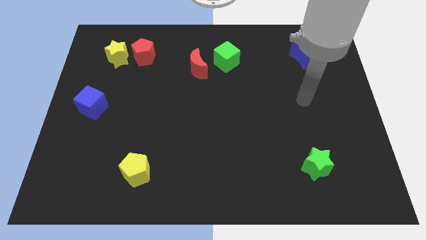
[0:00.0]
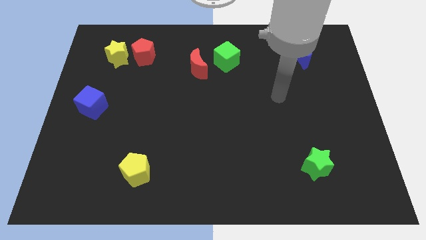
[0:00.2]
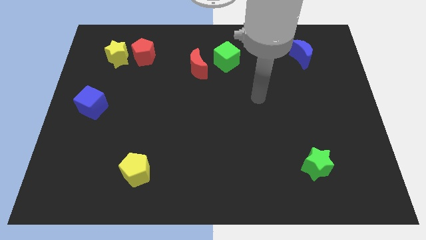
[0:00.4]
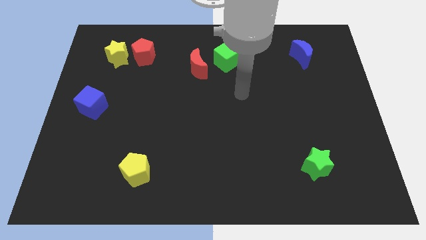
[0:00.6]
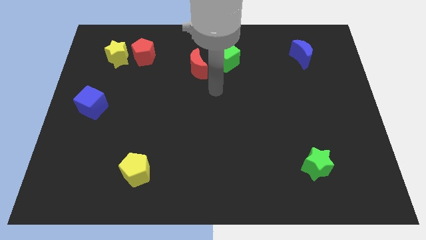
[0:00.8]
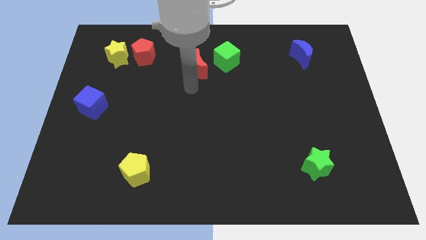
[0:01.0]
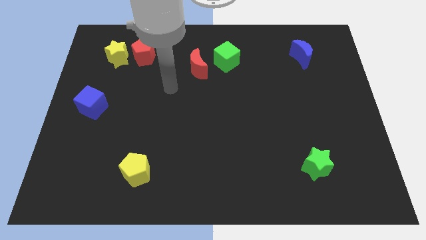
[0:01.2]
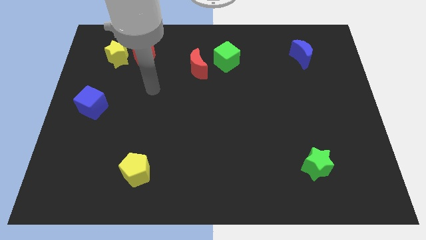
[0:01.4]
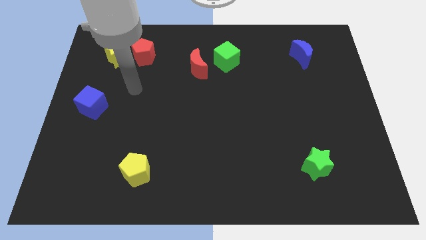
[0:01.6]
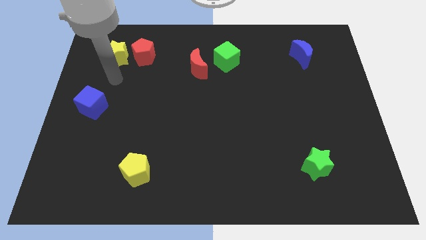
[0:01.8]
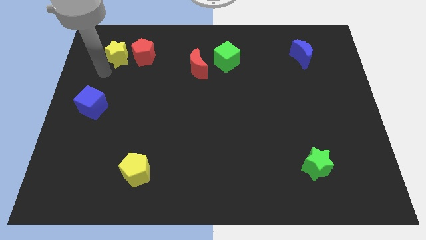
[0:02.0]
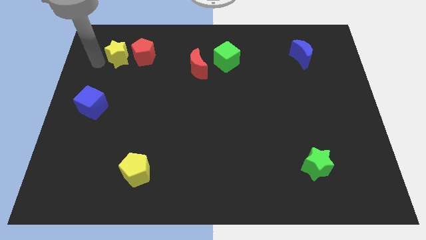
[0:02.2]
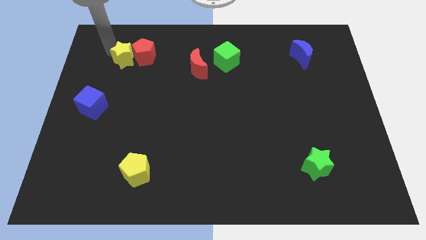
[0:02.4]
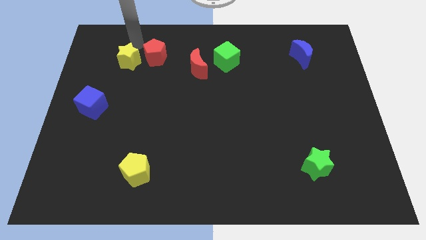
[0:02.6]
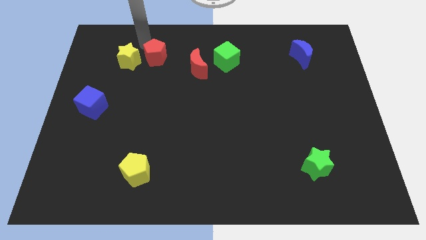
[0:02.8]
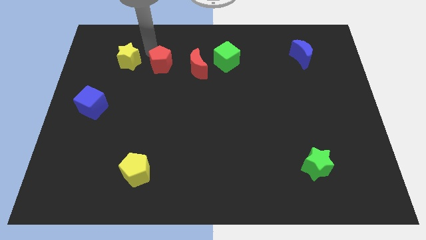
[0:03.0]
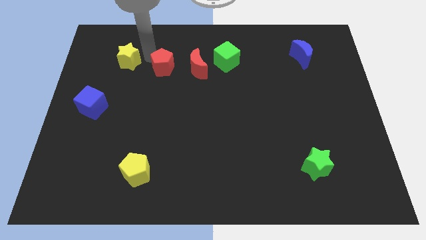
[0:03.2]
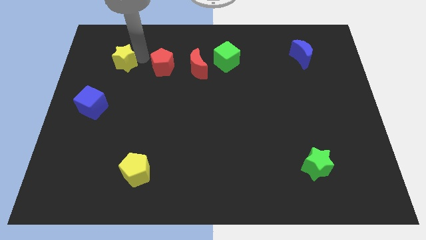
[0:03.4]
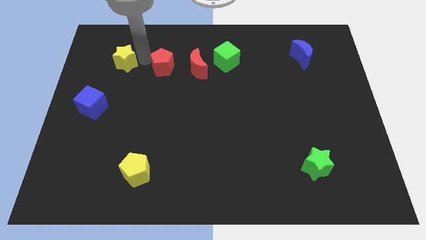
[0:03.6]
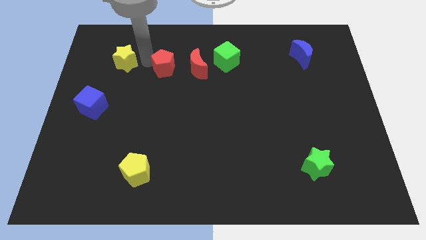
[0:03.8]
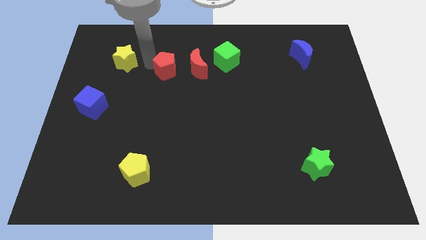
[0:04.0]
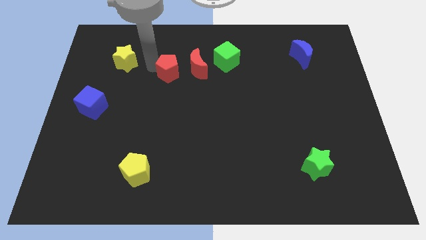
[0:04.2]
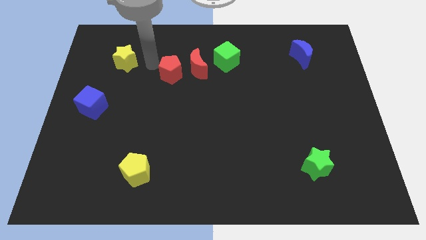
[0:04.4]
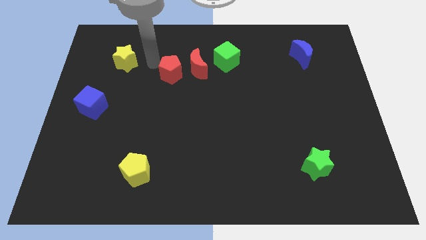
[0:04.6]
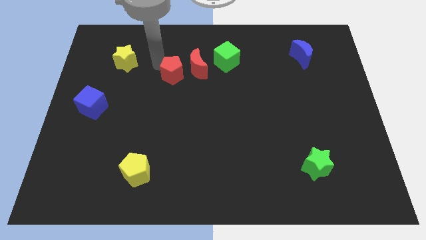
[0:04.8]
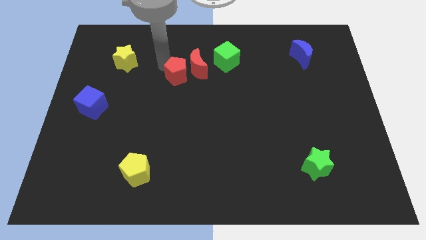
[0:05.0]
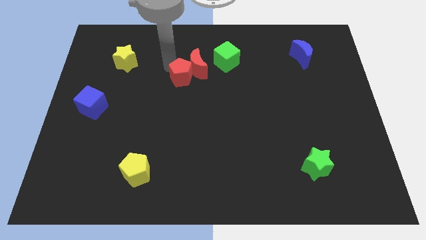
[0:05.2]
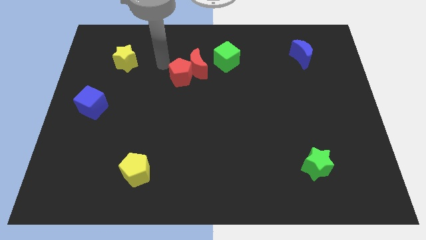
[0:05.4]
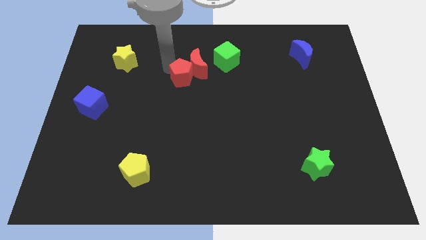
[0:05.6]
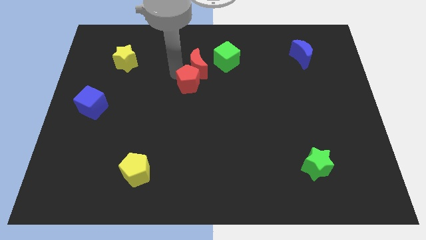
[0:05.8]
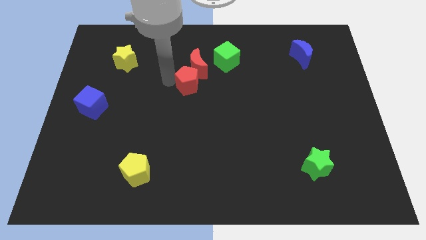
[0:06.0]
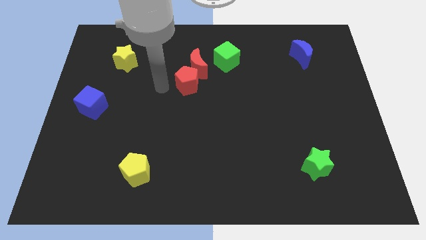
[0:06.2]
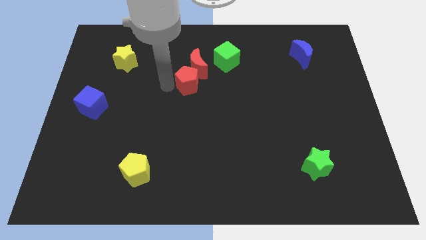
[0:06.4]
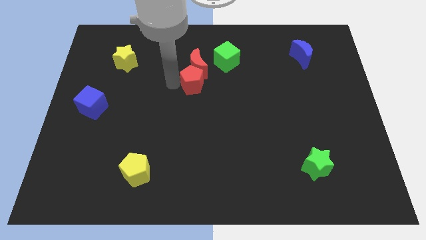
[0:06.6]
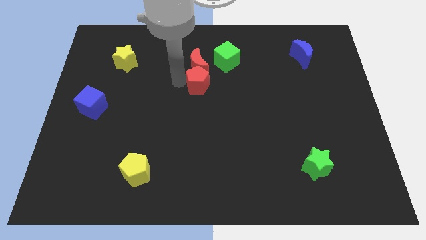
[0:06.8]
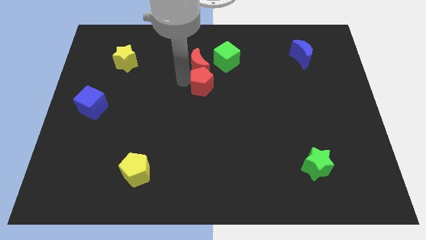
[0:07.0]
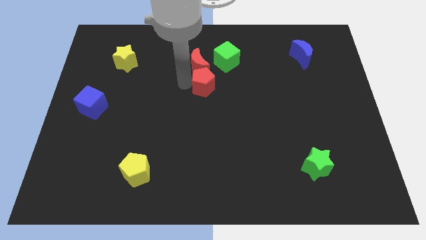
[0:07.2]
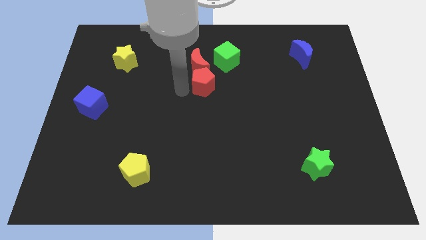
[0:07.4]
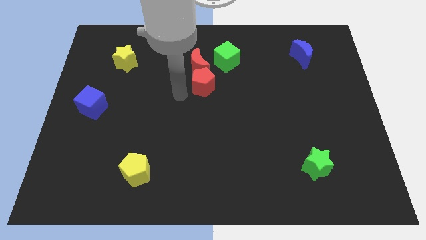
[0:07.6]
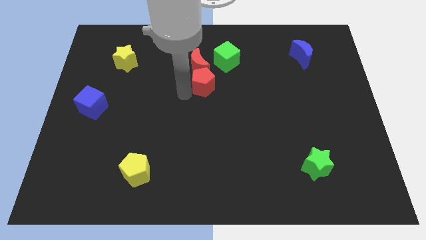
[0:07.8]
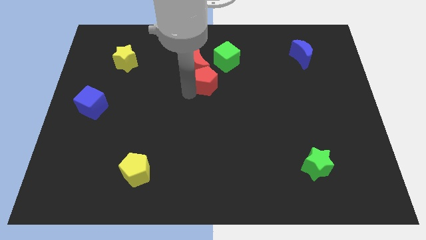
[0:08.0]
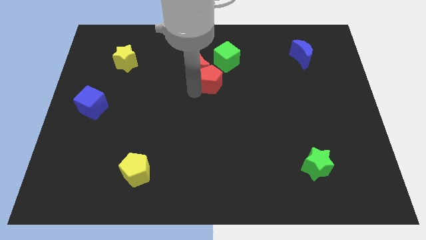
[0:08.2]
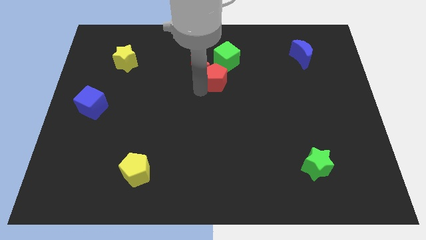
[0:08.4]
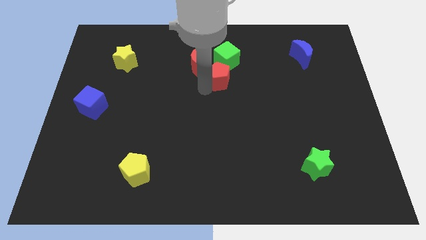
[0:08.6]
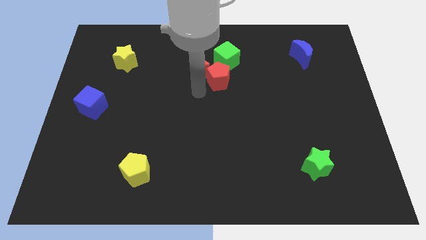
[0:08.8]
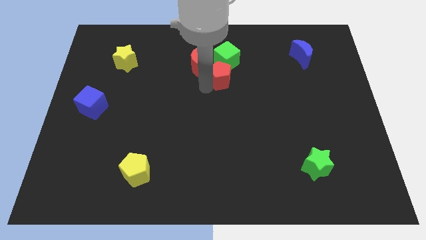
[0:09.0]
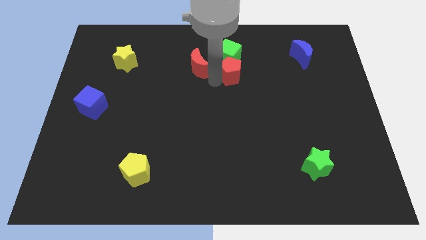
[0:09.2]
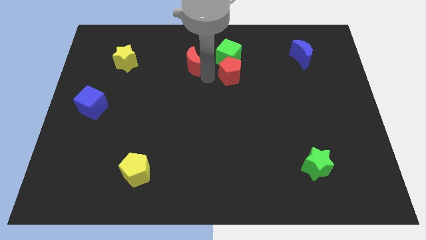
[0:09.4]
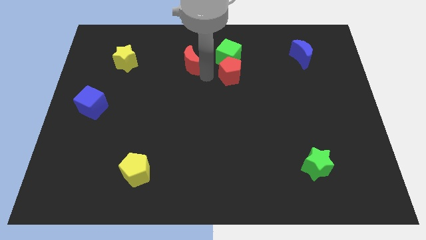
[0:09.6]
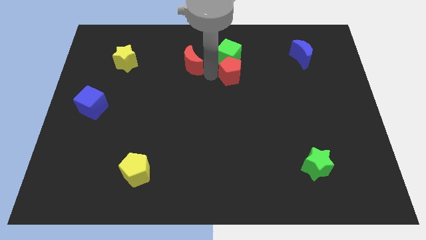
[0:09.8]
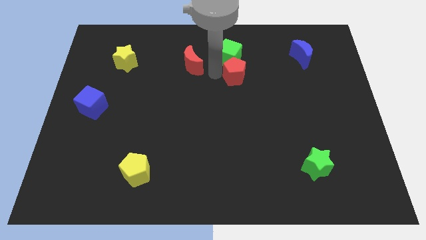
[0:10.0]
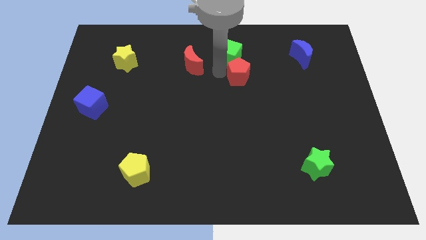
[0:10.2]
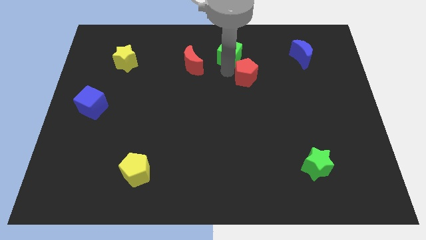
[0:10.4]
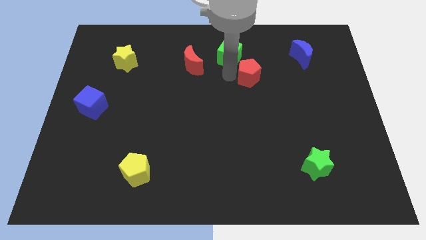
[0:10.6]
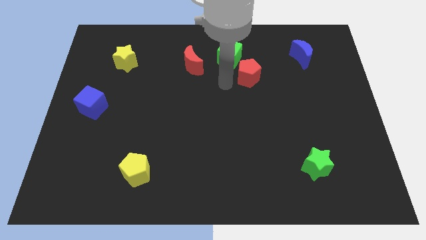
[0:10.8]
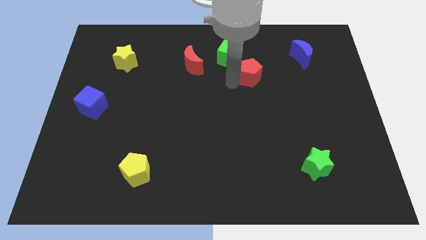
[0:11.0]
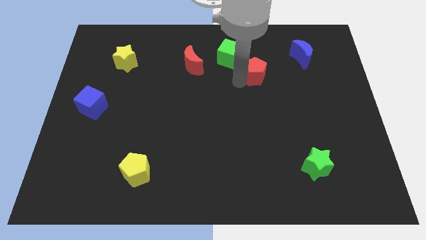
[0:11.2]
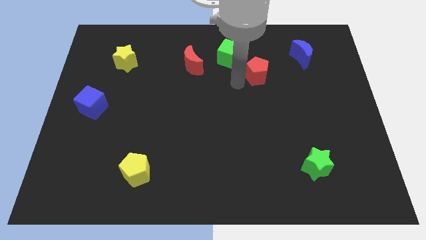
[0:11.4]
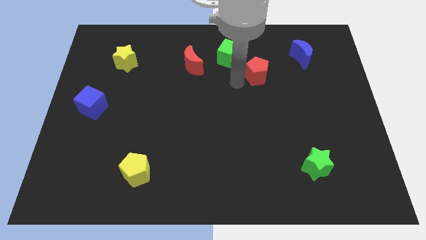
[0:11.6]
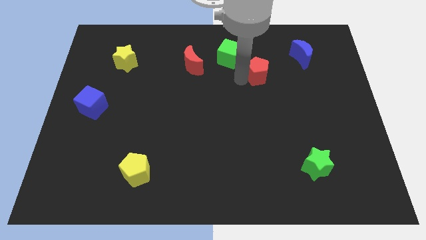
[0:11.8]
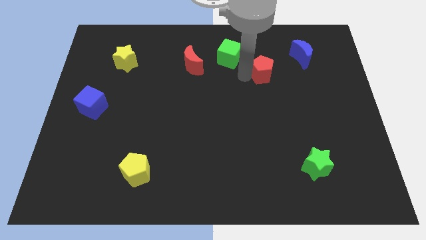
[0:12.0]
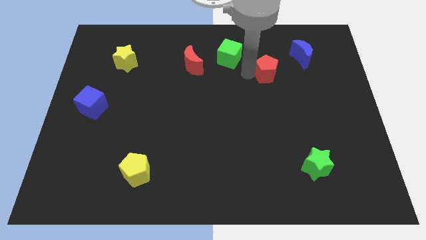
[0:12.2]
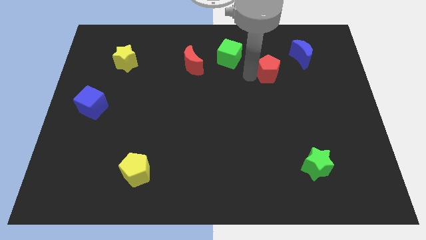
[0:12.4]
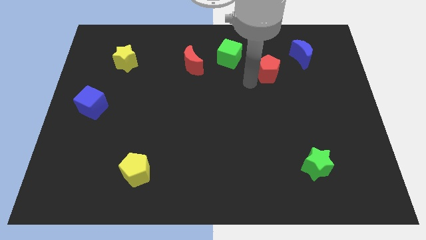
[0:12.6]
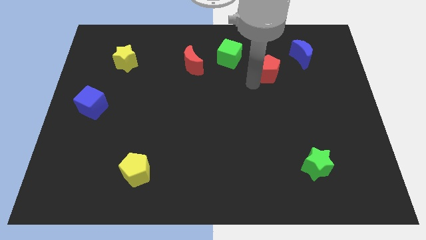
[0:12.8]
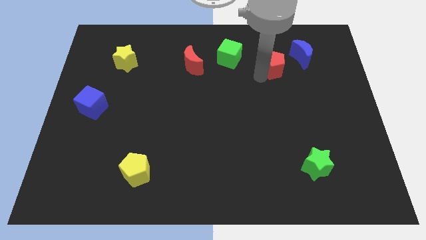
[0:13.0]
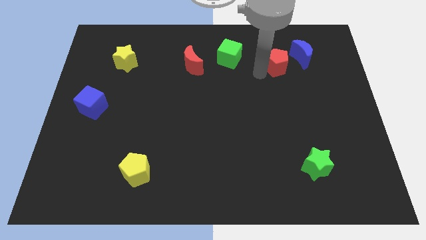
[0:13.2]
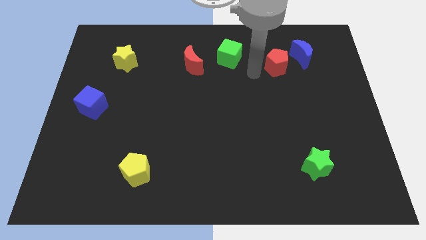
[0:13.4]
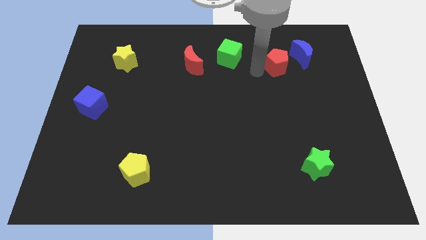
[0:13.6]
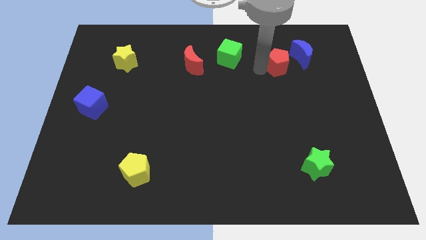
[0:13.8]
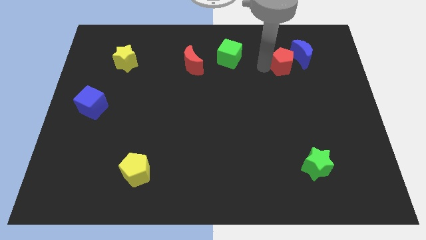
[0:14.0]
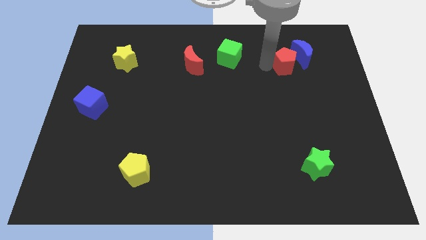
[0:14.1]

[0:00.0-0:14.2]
put the red pentagon next to the blue moon

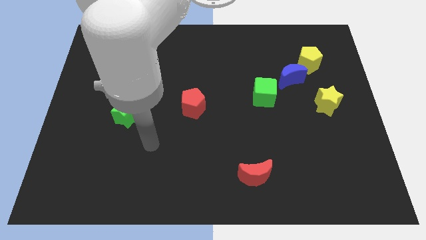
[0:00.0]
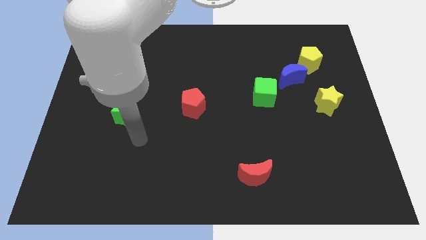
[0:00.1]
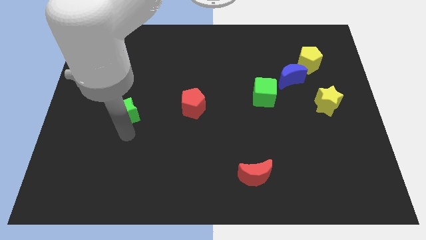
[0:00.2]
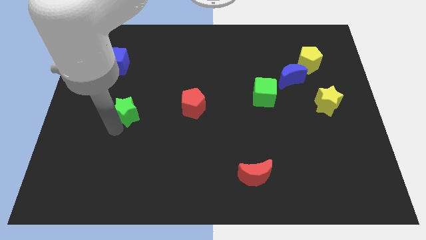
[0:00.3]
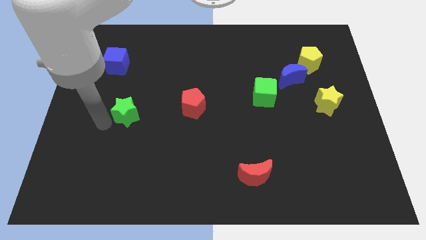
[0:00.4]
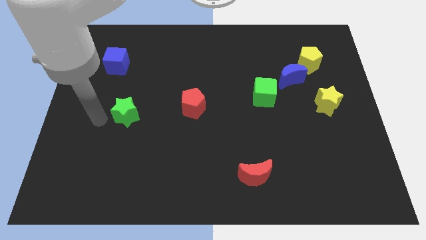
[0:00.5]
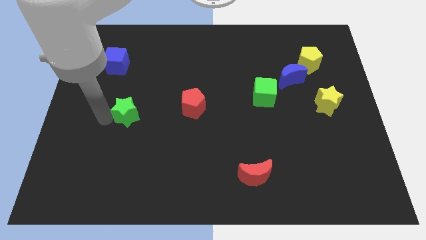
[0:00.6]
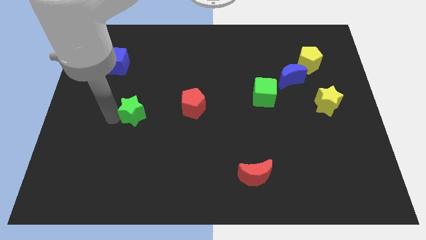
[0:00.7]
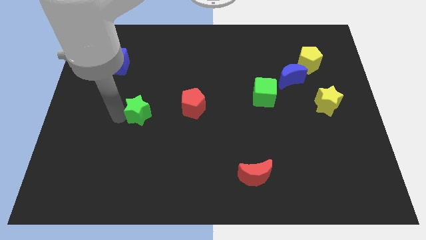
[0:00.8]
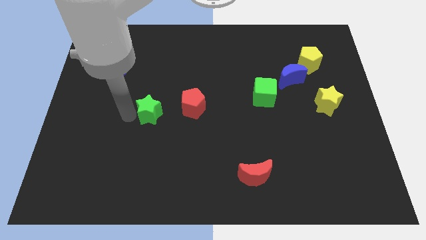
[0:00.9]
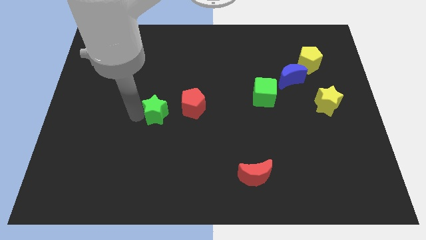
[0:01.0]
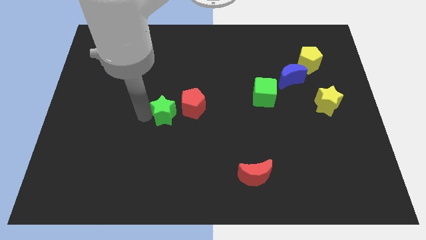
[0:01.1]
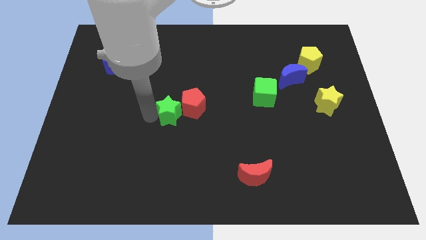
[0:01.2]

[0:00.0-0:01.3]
push the green star to the red pentagon
